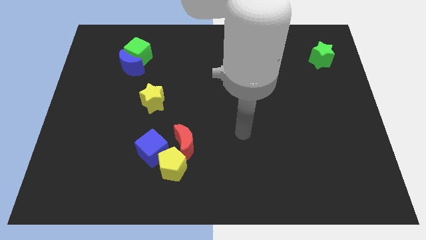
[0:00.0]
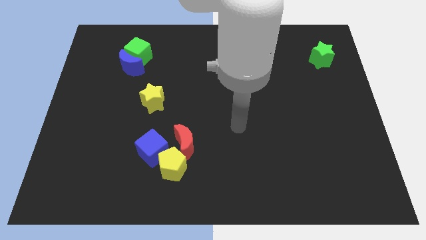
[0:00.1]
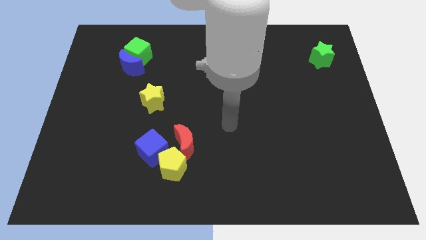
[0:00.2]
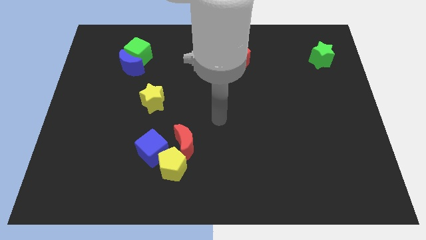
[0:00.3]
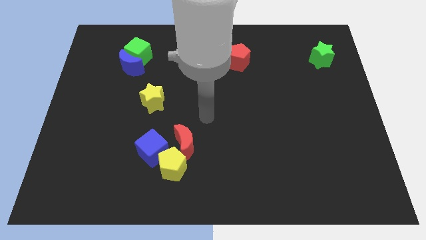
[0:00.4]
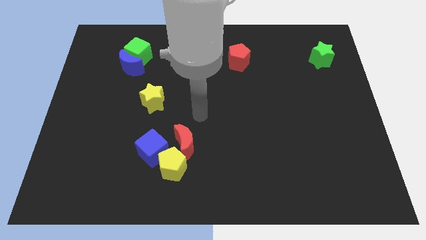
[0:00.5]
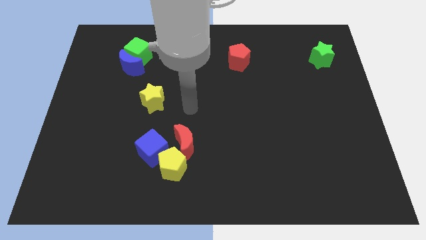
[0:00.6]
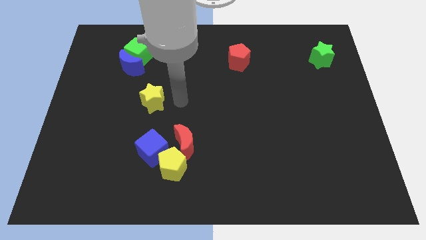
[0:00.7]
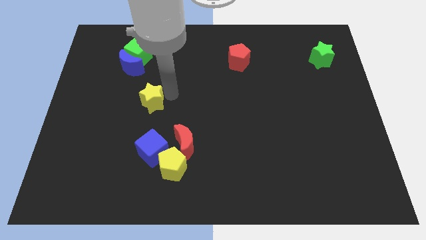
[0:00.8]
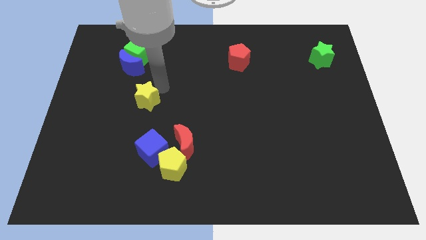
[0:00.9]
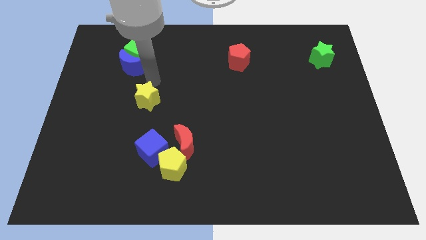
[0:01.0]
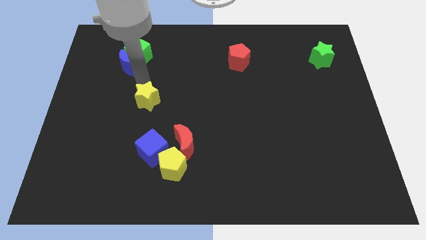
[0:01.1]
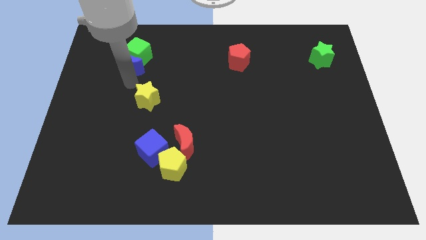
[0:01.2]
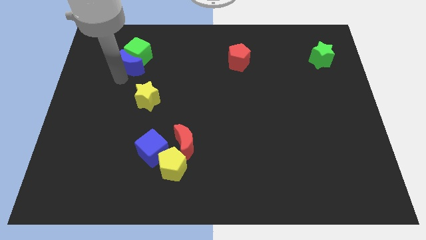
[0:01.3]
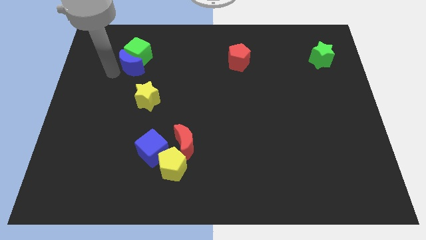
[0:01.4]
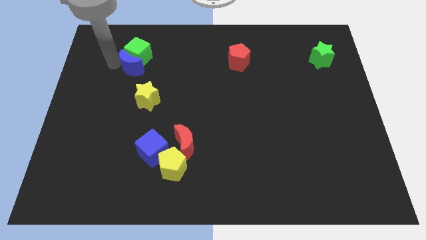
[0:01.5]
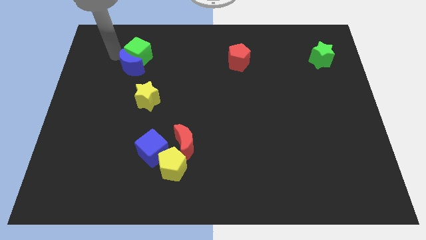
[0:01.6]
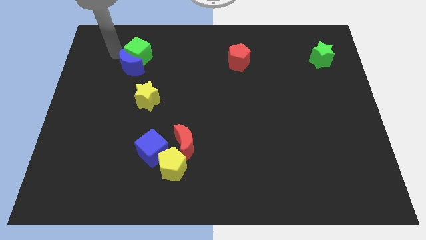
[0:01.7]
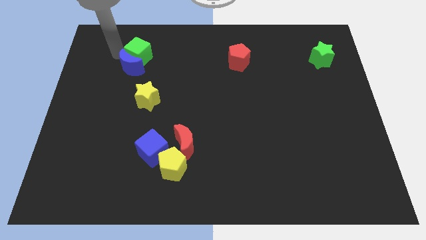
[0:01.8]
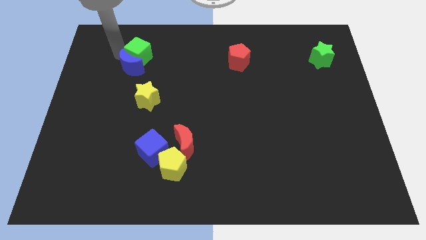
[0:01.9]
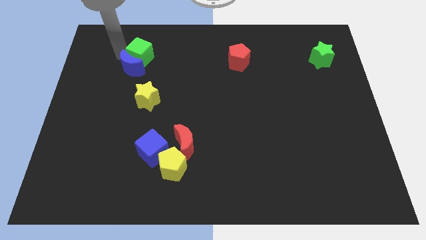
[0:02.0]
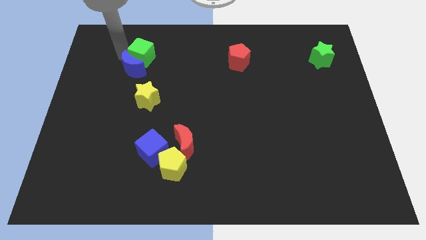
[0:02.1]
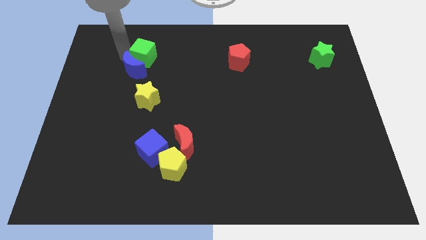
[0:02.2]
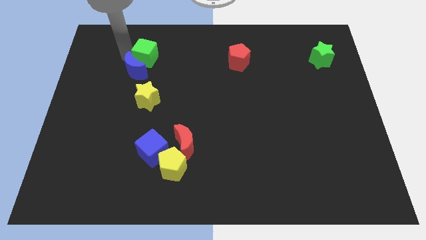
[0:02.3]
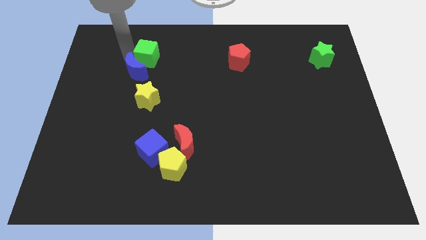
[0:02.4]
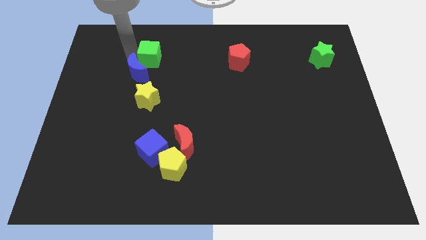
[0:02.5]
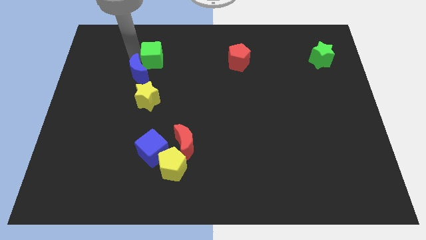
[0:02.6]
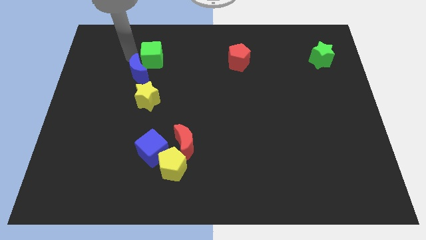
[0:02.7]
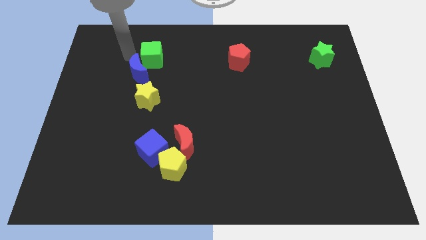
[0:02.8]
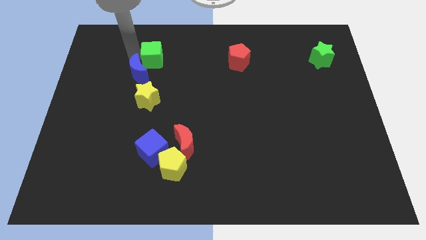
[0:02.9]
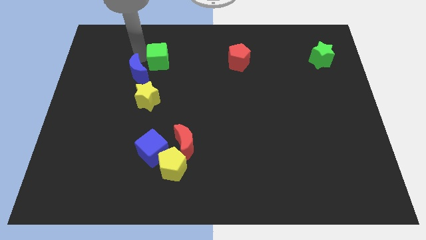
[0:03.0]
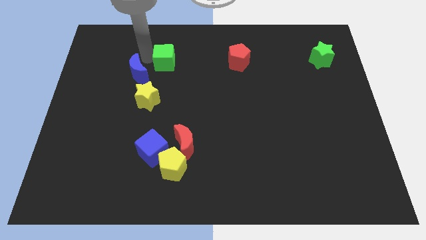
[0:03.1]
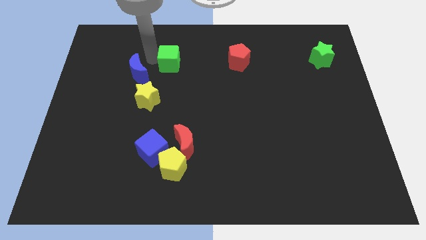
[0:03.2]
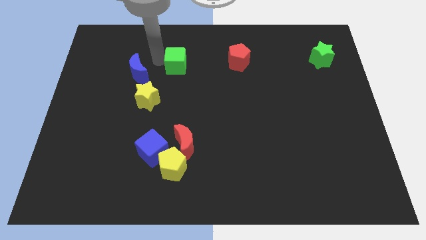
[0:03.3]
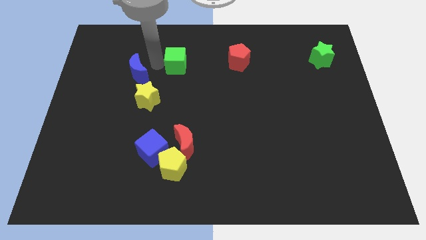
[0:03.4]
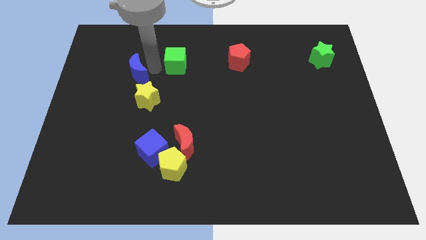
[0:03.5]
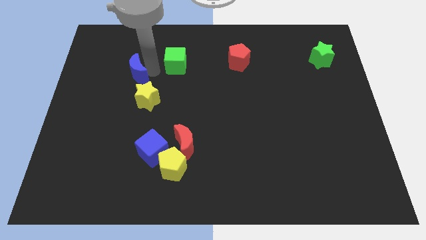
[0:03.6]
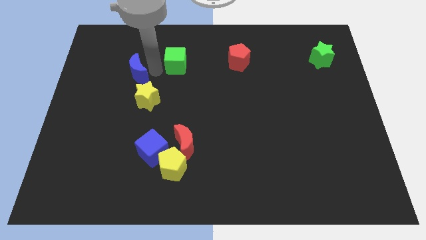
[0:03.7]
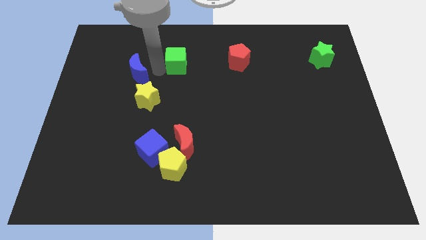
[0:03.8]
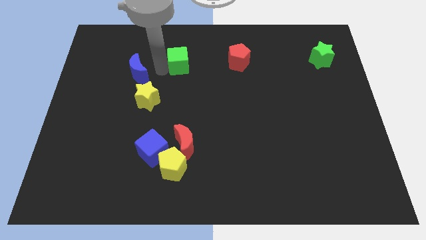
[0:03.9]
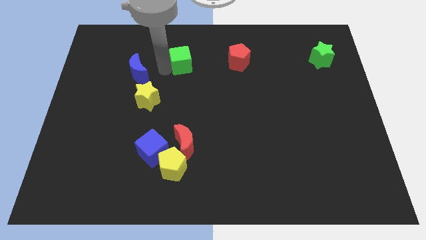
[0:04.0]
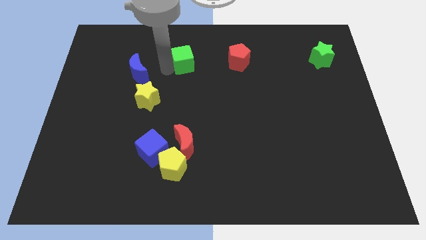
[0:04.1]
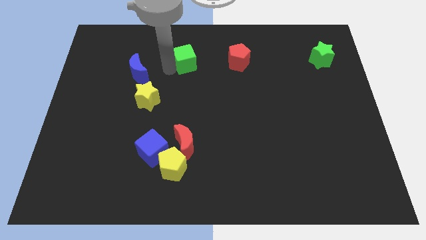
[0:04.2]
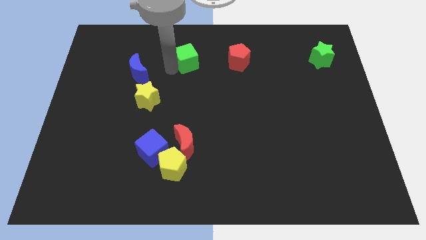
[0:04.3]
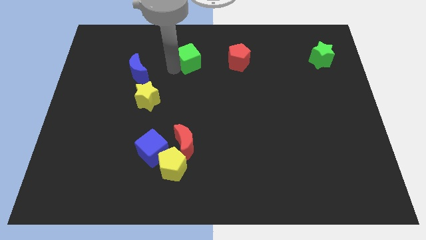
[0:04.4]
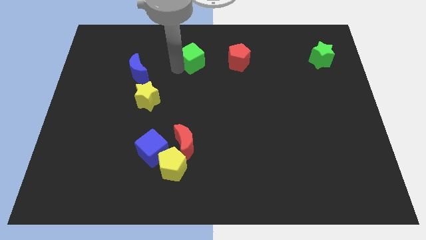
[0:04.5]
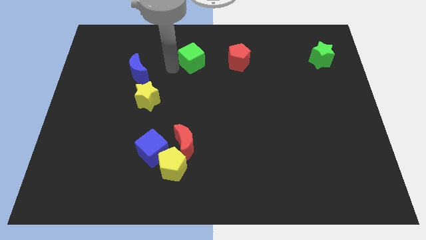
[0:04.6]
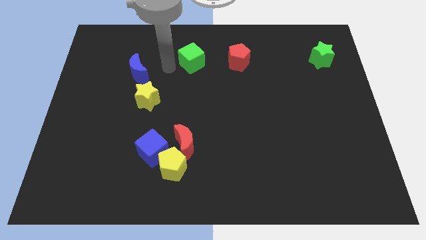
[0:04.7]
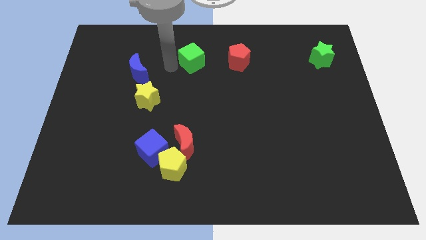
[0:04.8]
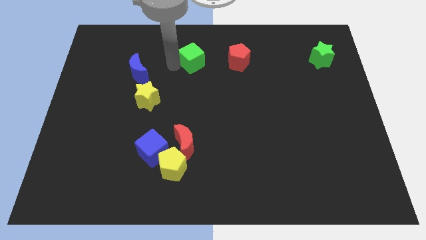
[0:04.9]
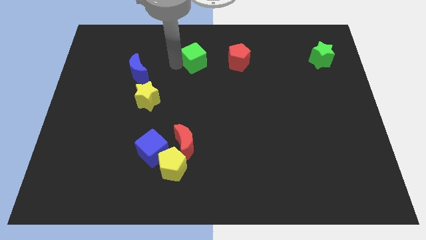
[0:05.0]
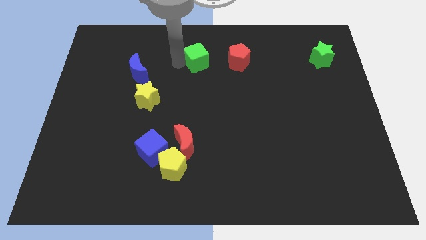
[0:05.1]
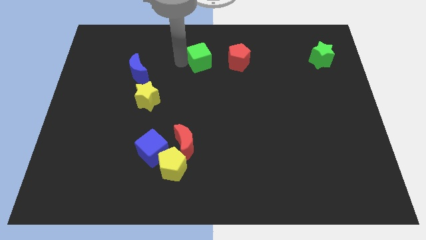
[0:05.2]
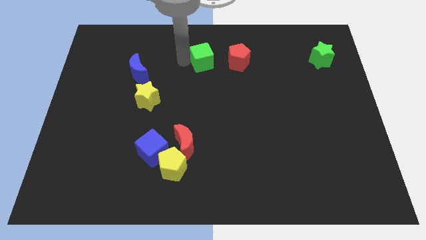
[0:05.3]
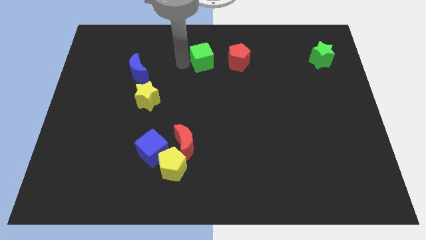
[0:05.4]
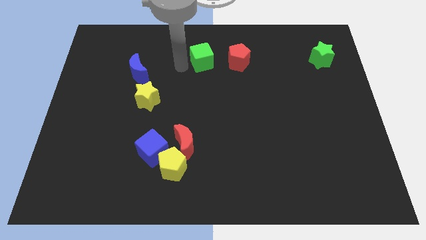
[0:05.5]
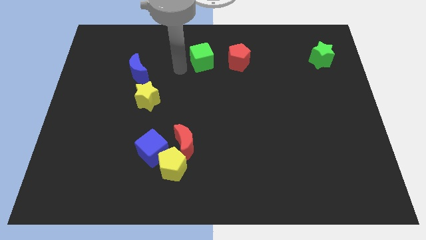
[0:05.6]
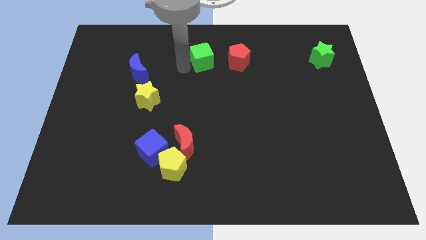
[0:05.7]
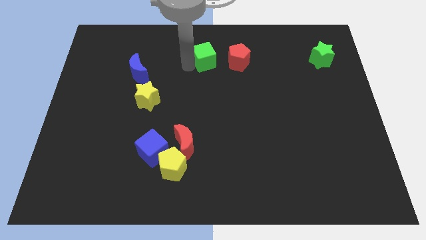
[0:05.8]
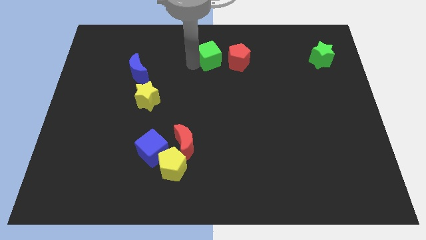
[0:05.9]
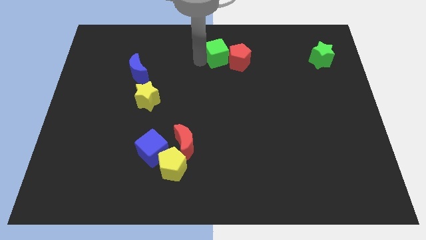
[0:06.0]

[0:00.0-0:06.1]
push the green cube to the red pentagon

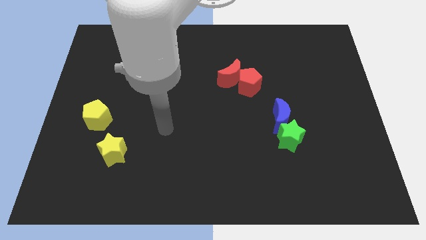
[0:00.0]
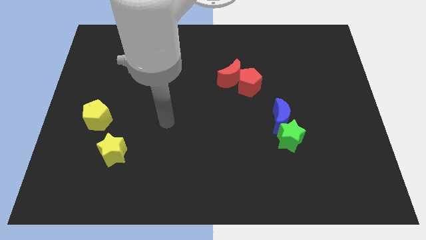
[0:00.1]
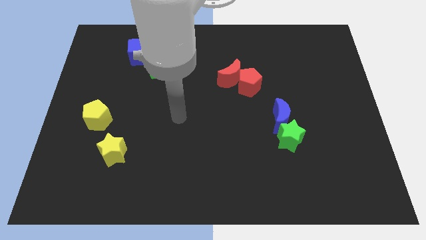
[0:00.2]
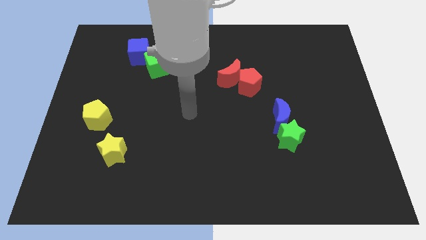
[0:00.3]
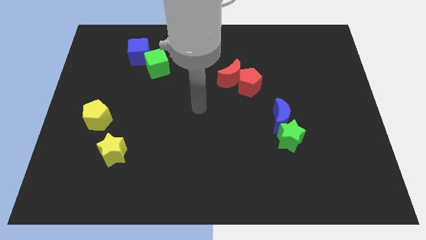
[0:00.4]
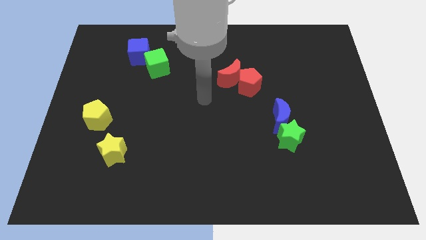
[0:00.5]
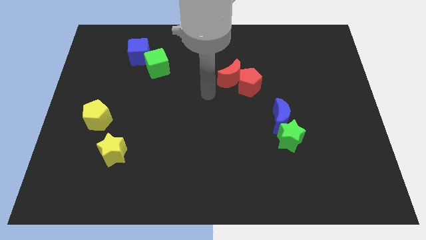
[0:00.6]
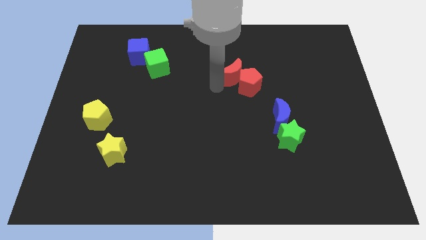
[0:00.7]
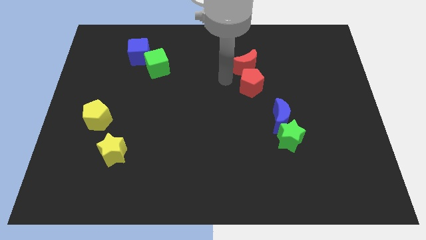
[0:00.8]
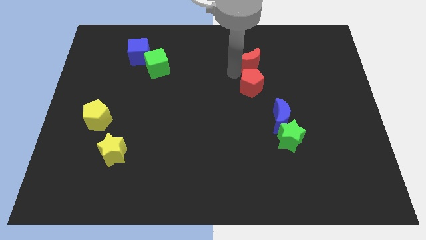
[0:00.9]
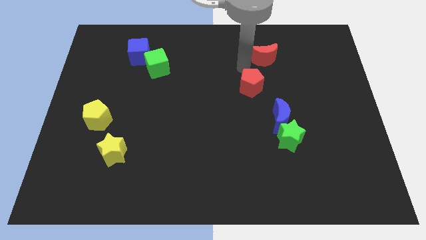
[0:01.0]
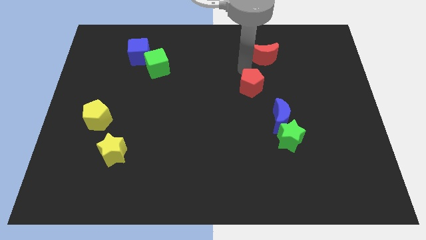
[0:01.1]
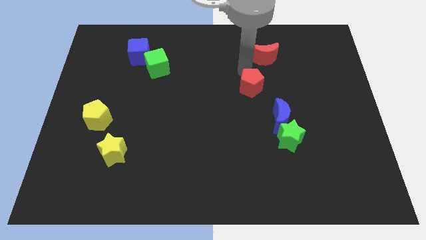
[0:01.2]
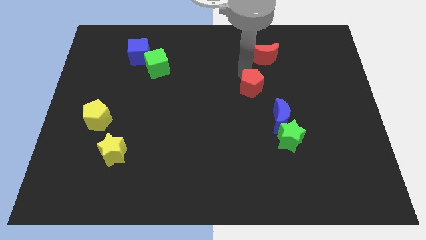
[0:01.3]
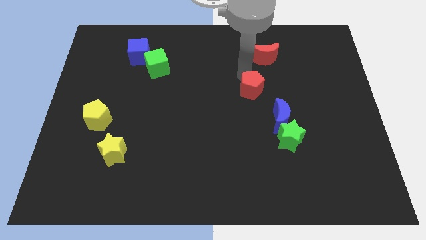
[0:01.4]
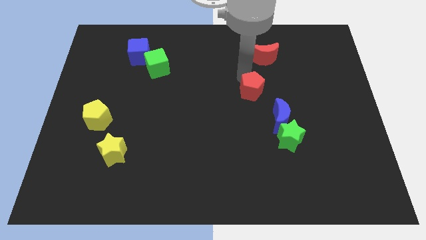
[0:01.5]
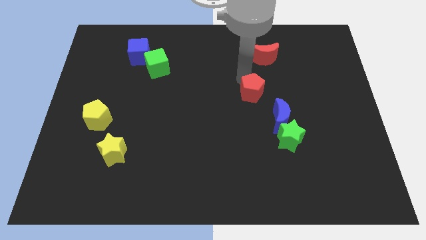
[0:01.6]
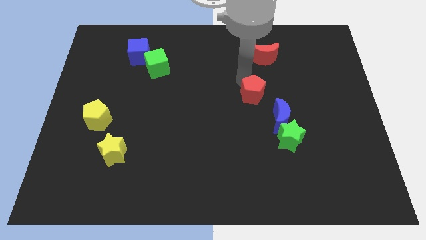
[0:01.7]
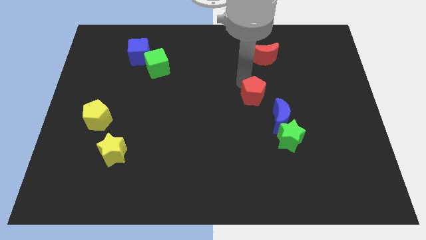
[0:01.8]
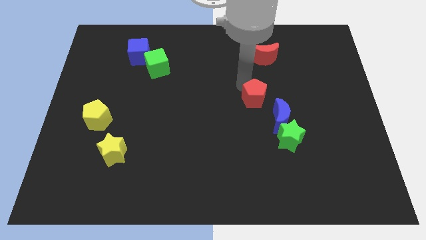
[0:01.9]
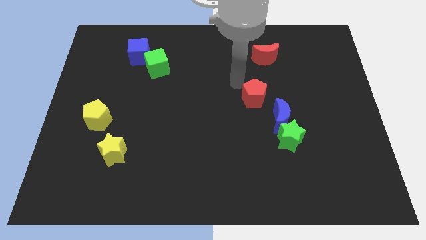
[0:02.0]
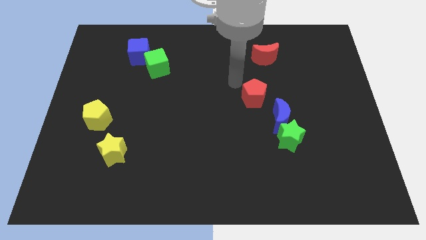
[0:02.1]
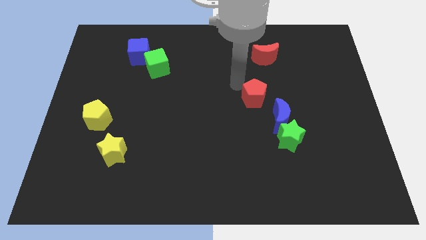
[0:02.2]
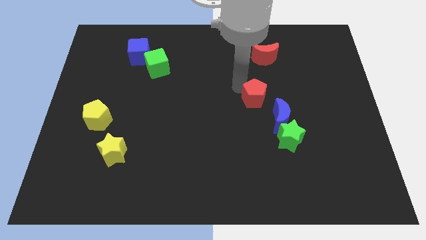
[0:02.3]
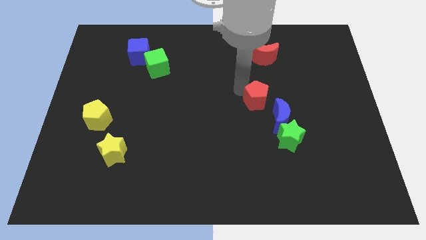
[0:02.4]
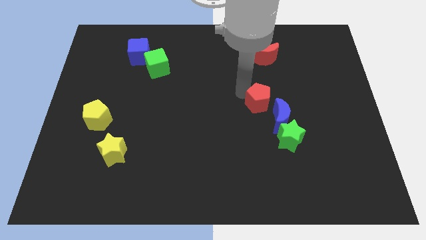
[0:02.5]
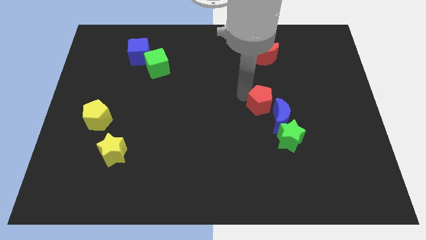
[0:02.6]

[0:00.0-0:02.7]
push the red pentagon next to the blue moon
